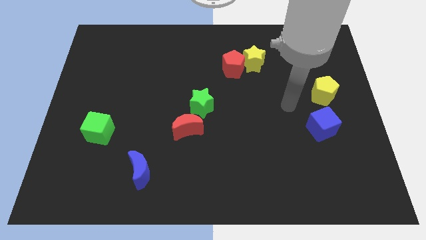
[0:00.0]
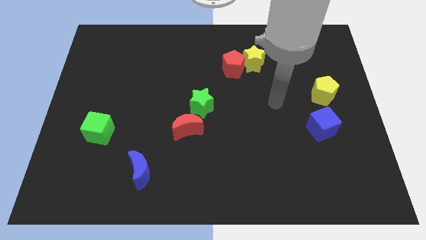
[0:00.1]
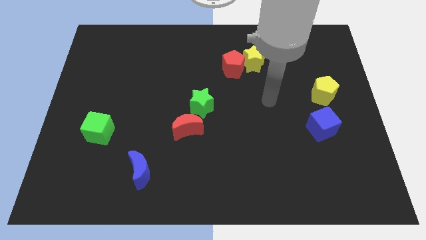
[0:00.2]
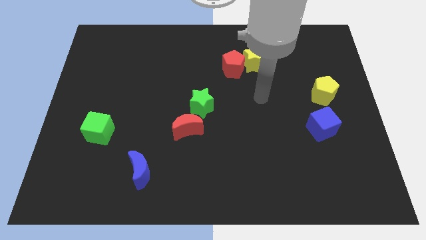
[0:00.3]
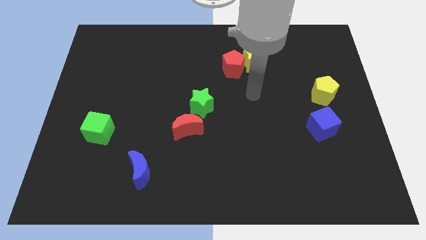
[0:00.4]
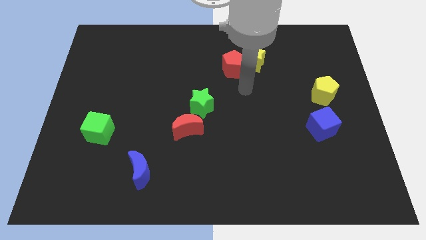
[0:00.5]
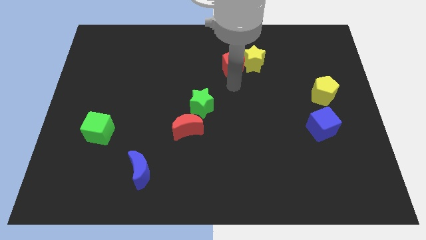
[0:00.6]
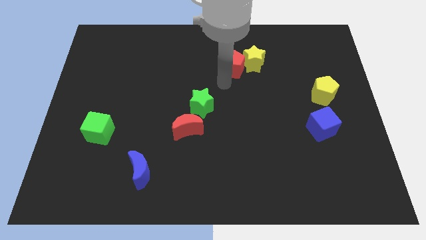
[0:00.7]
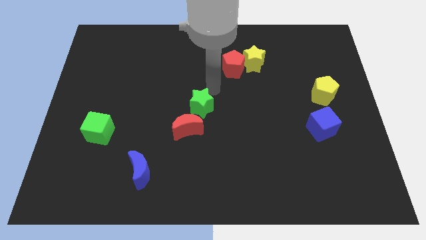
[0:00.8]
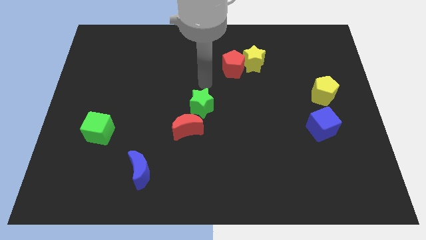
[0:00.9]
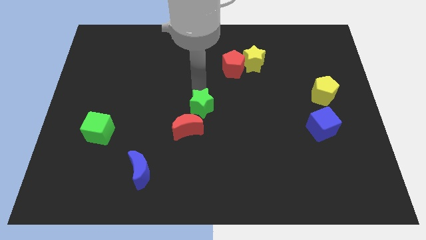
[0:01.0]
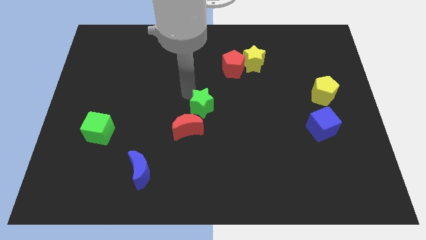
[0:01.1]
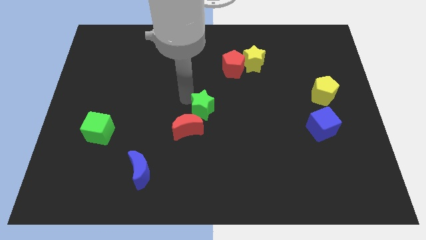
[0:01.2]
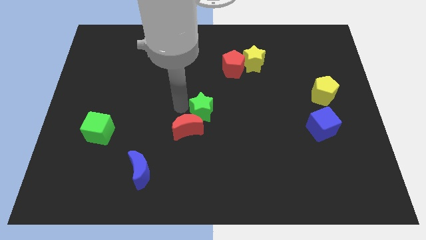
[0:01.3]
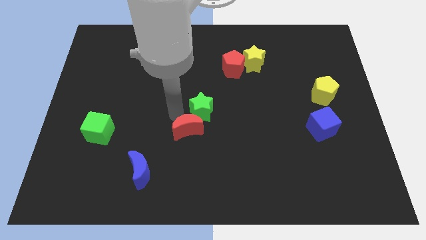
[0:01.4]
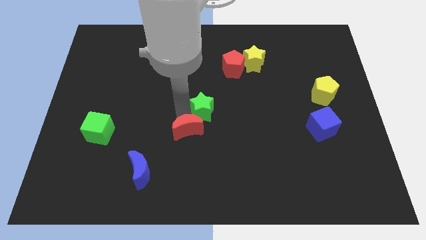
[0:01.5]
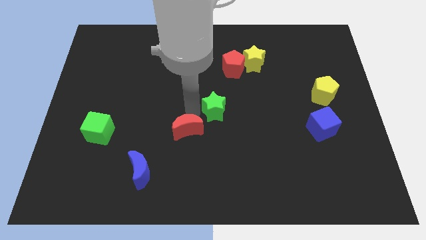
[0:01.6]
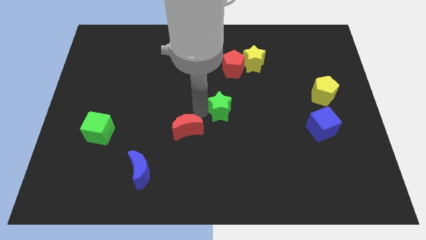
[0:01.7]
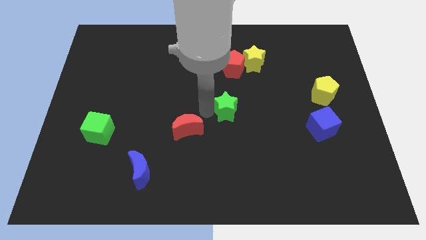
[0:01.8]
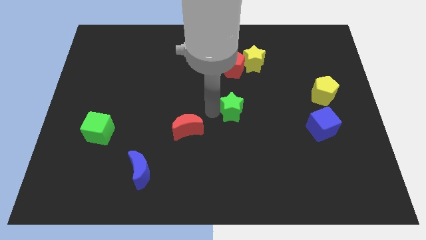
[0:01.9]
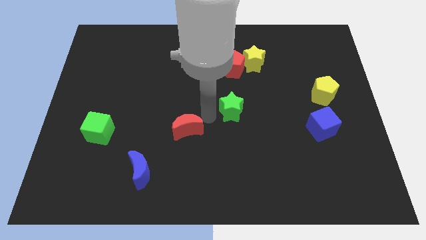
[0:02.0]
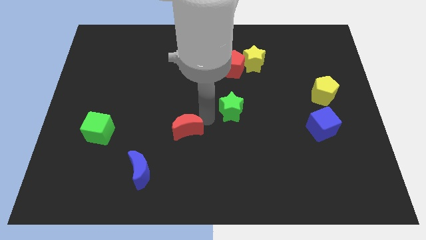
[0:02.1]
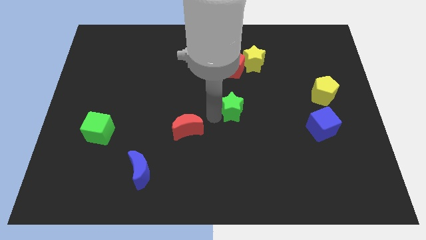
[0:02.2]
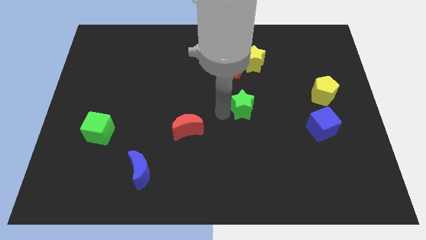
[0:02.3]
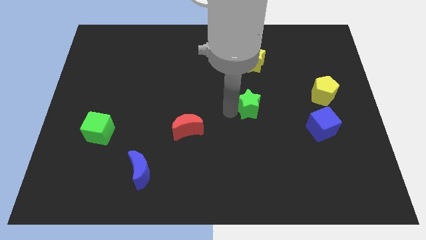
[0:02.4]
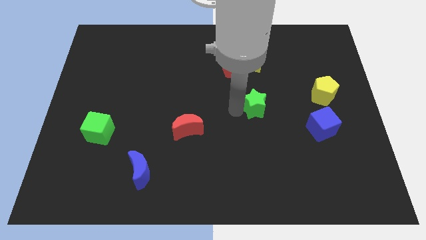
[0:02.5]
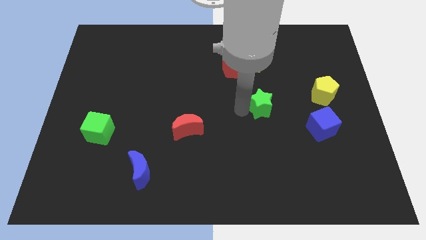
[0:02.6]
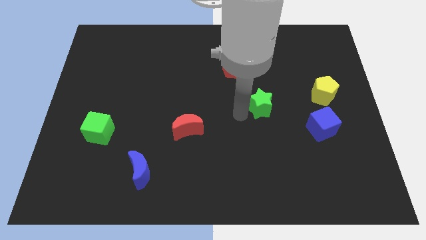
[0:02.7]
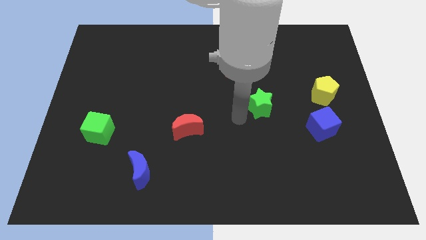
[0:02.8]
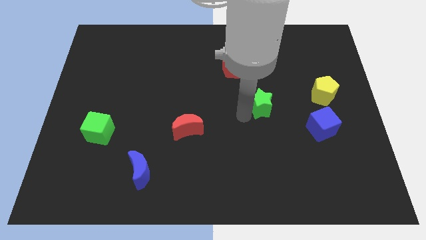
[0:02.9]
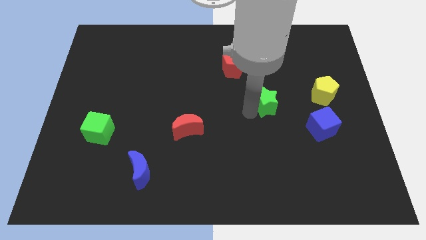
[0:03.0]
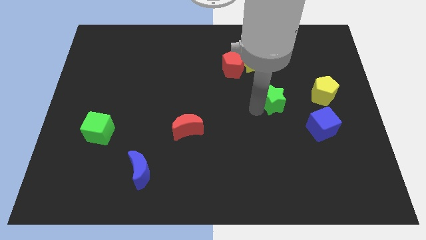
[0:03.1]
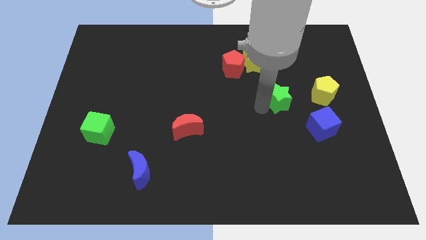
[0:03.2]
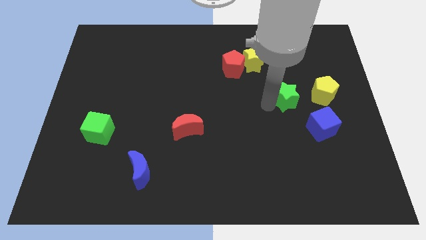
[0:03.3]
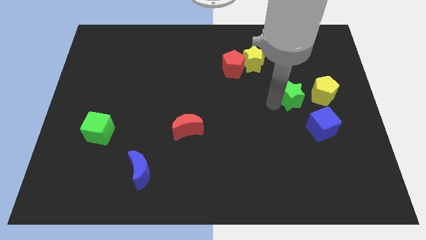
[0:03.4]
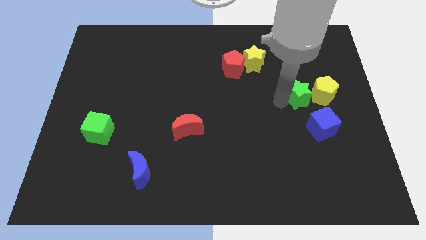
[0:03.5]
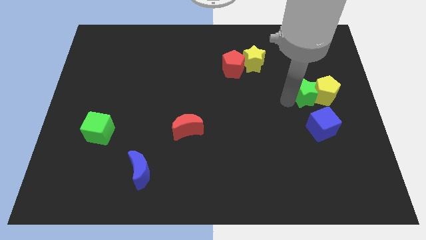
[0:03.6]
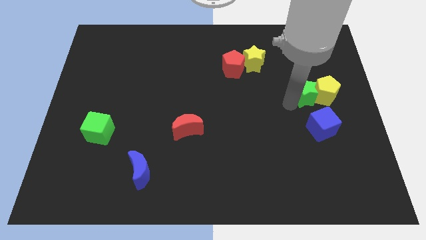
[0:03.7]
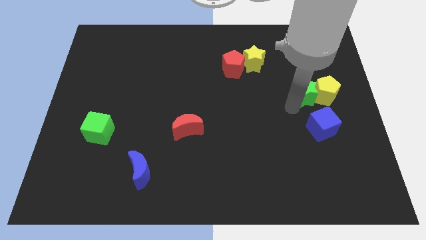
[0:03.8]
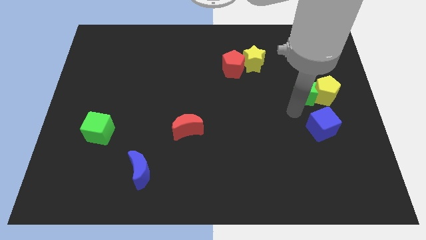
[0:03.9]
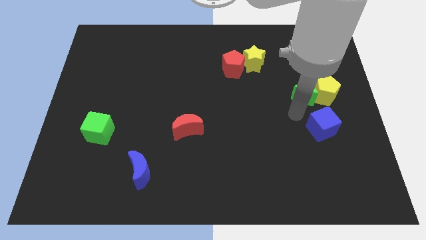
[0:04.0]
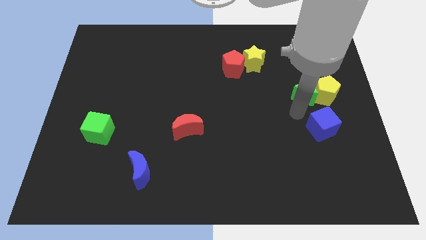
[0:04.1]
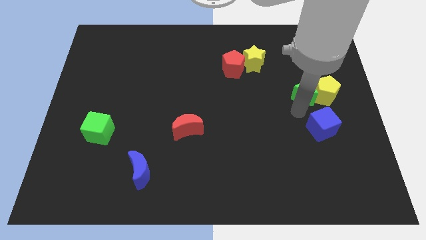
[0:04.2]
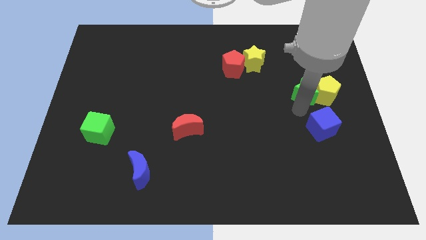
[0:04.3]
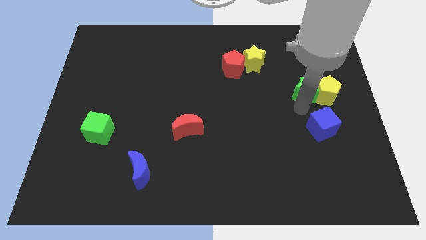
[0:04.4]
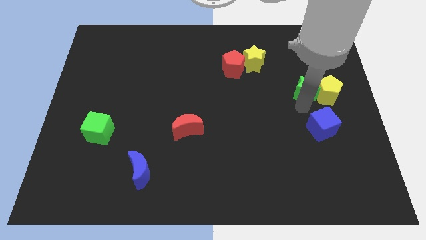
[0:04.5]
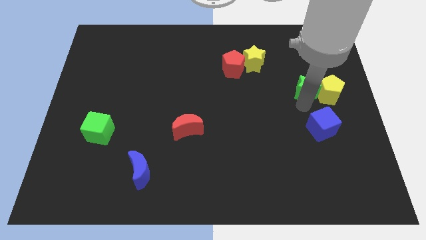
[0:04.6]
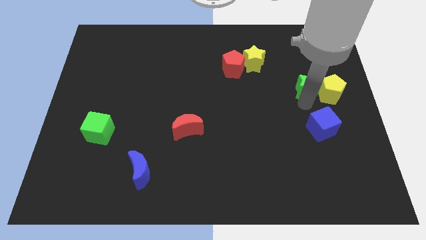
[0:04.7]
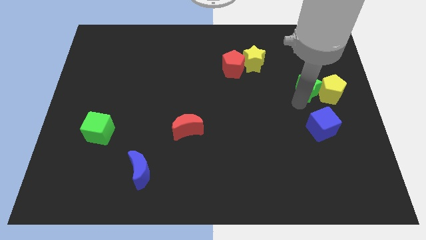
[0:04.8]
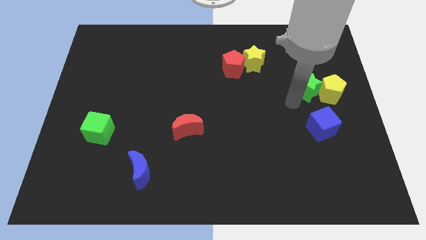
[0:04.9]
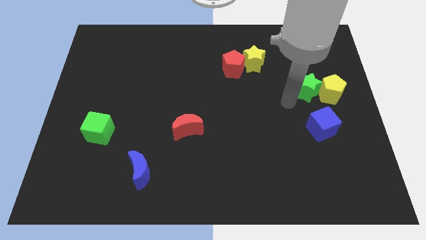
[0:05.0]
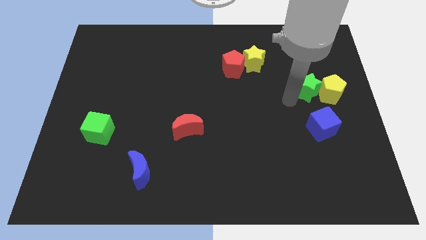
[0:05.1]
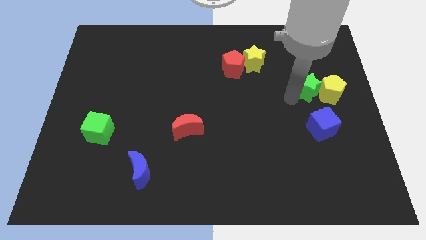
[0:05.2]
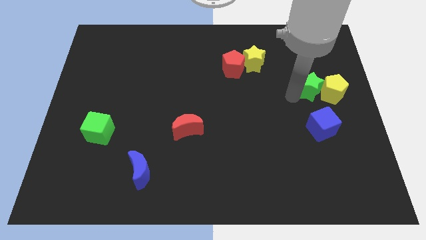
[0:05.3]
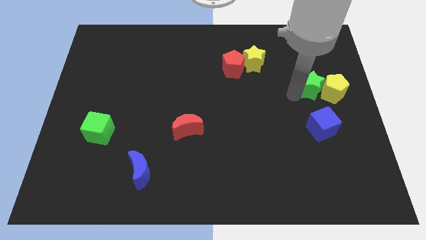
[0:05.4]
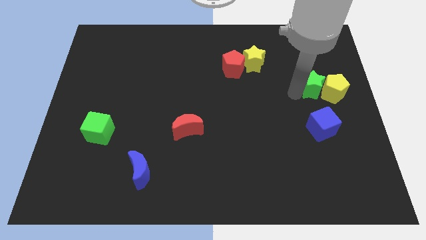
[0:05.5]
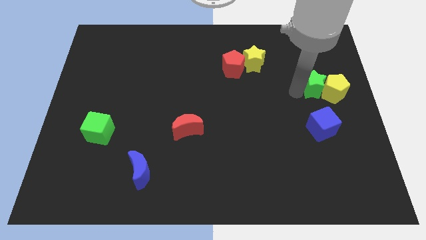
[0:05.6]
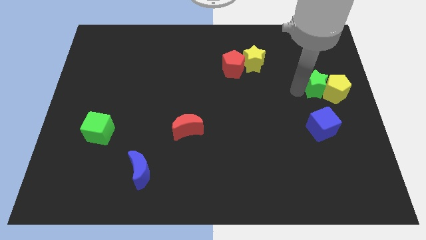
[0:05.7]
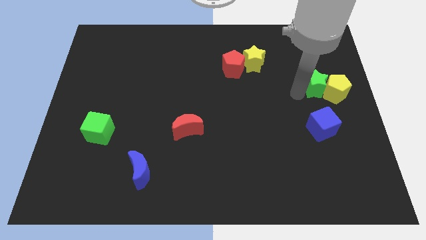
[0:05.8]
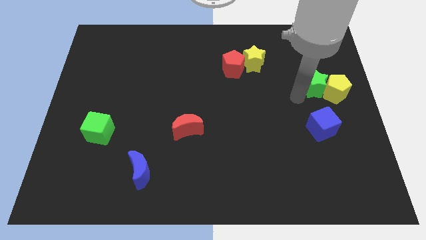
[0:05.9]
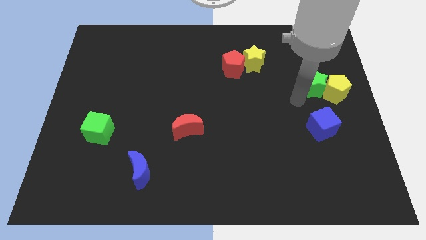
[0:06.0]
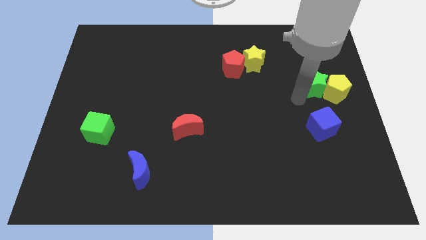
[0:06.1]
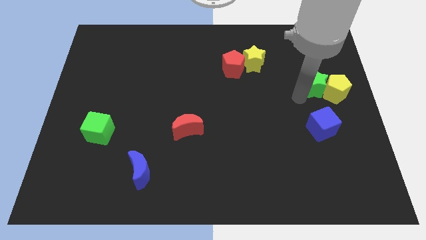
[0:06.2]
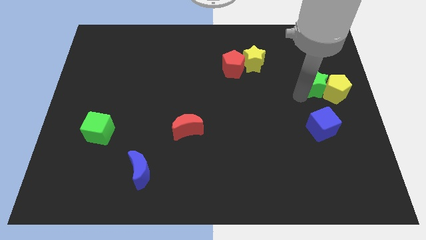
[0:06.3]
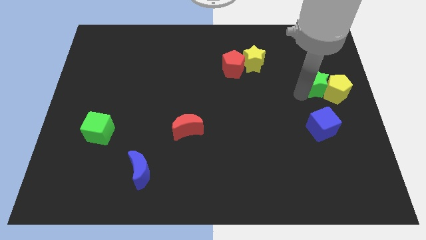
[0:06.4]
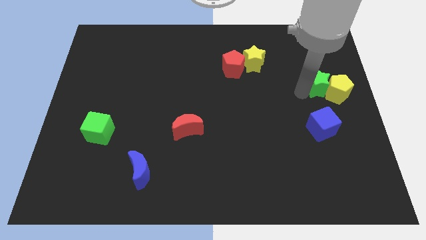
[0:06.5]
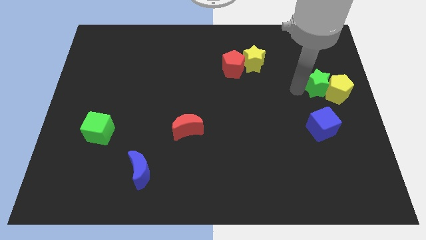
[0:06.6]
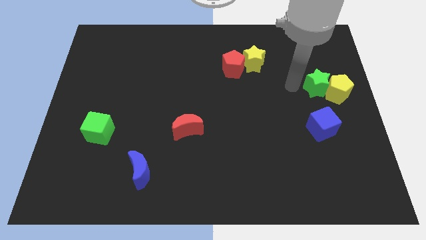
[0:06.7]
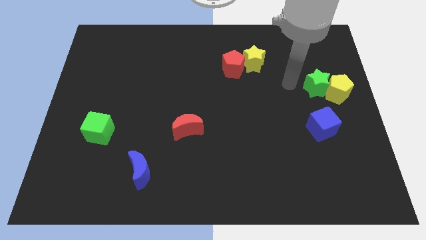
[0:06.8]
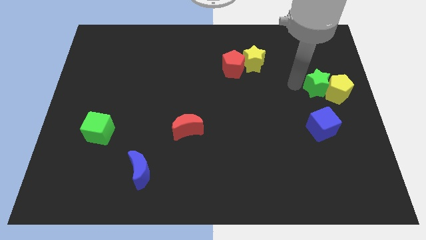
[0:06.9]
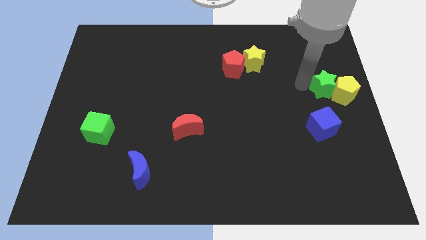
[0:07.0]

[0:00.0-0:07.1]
push the green star to the right side

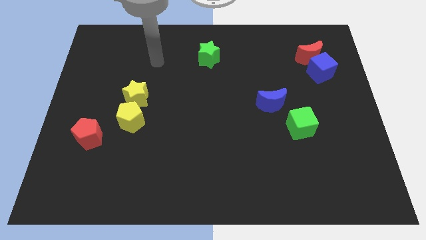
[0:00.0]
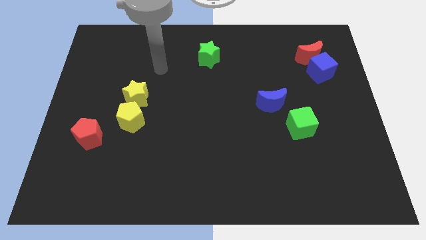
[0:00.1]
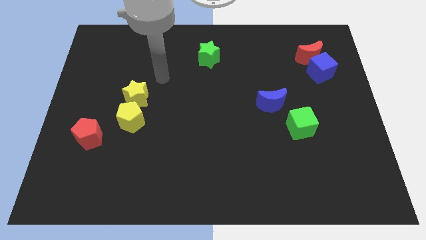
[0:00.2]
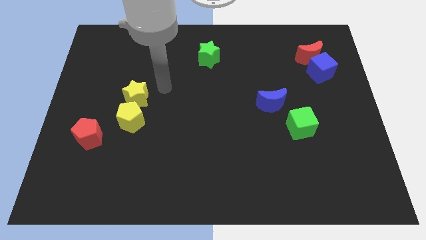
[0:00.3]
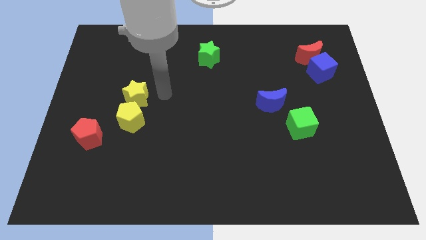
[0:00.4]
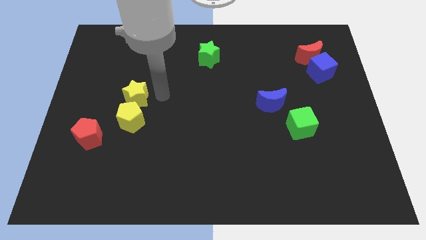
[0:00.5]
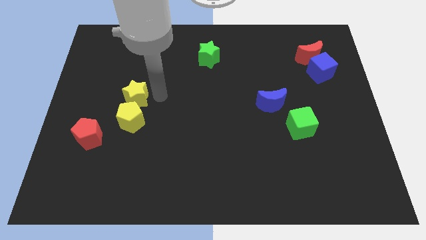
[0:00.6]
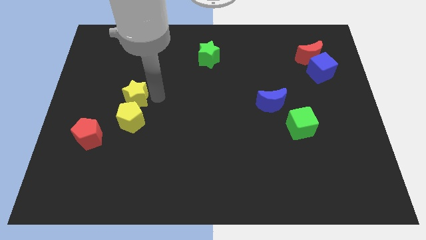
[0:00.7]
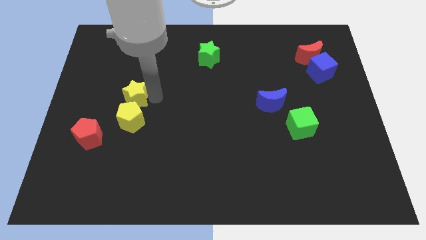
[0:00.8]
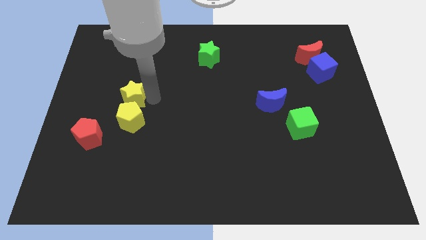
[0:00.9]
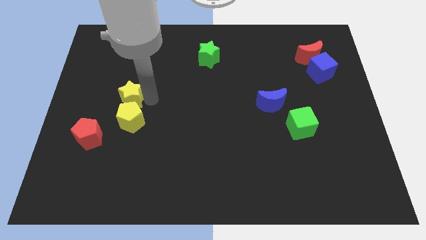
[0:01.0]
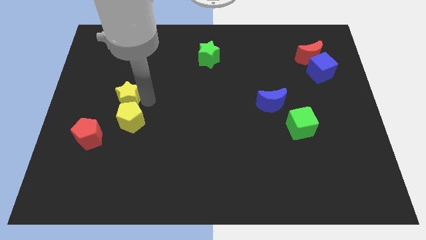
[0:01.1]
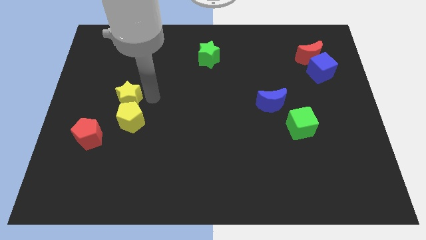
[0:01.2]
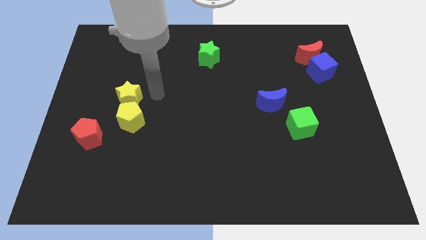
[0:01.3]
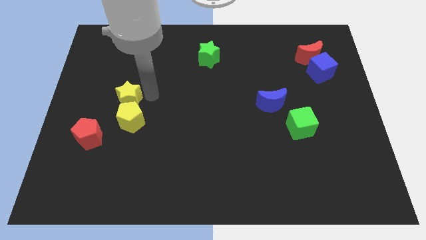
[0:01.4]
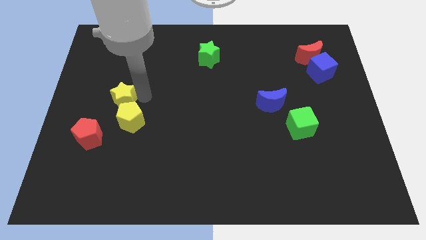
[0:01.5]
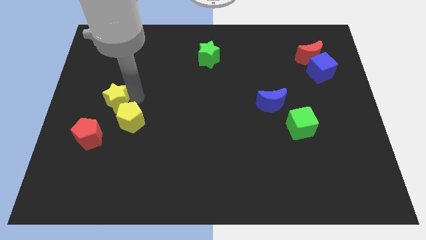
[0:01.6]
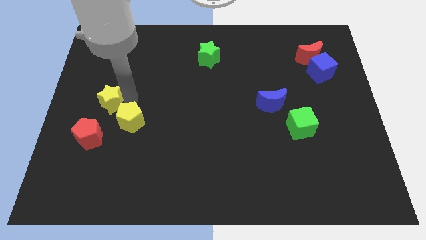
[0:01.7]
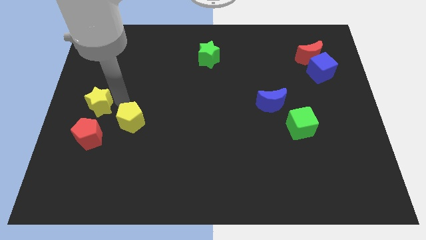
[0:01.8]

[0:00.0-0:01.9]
move the yellow star to the left side of the board
